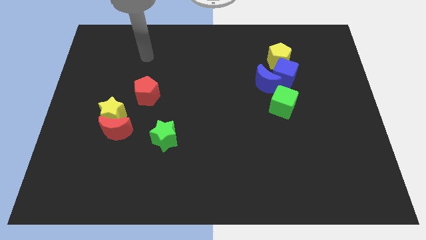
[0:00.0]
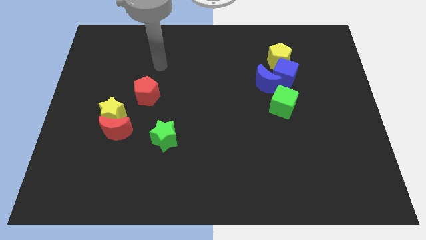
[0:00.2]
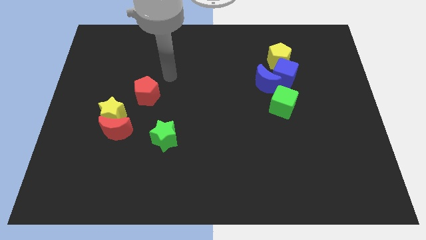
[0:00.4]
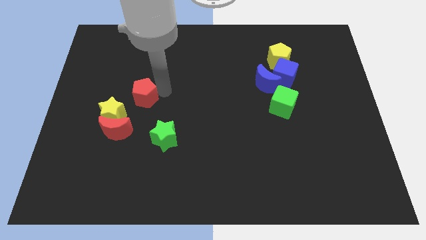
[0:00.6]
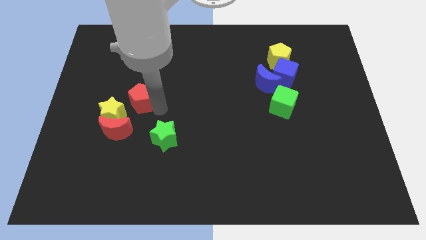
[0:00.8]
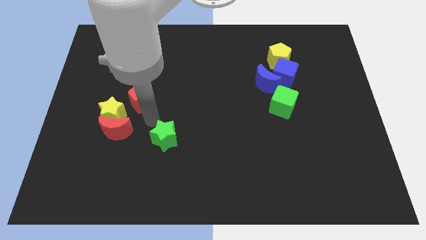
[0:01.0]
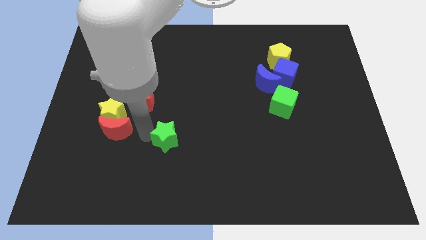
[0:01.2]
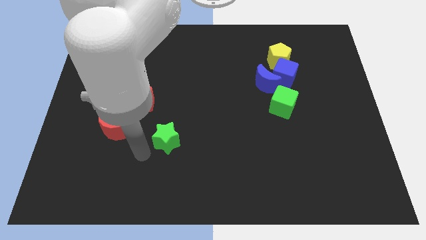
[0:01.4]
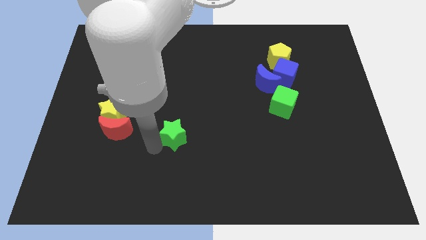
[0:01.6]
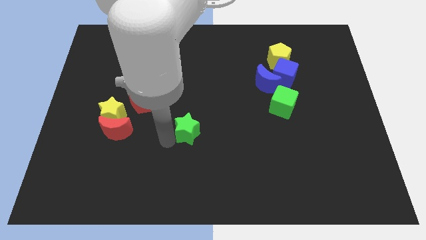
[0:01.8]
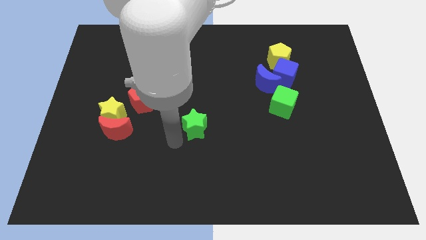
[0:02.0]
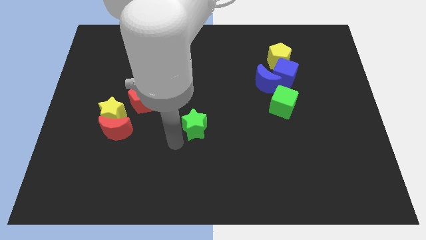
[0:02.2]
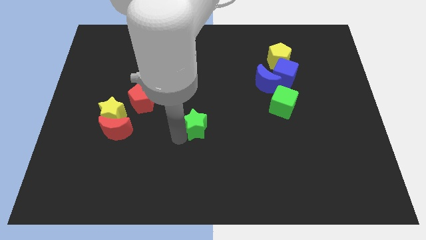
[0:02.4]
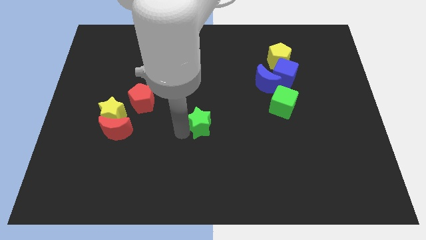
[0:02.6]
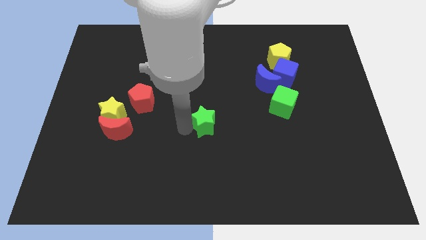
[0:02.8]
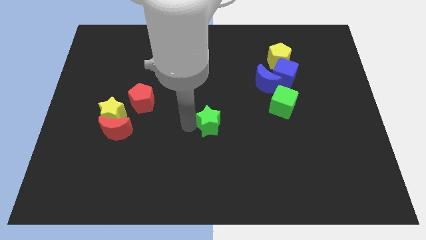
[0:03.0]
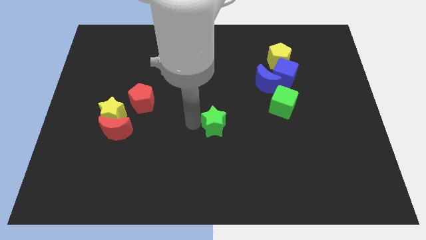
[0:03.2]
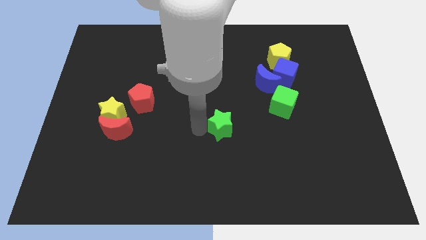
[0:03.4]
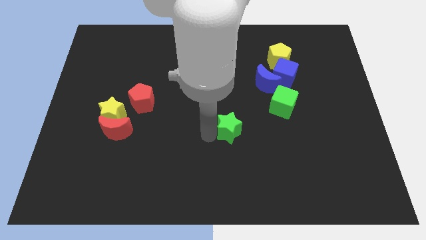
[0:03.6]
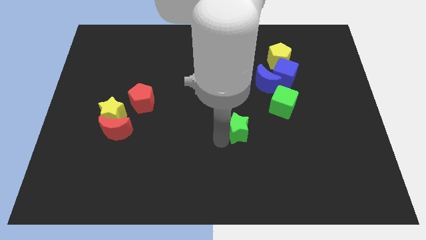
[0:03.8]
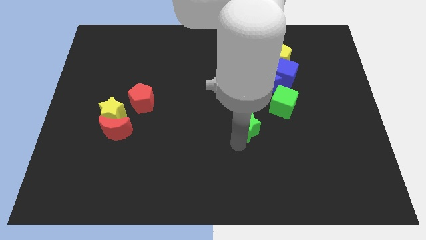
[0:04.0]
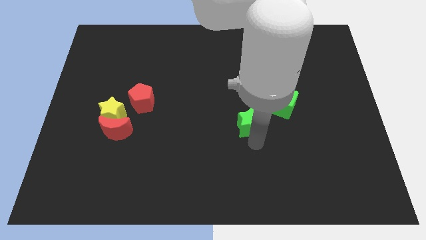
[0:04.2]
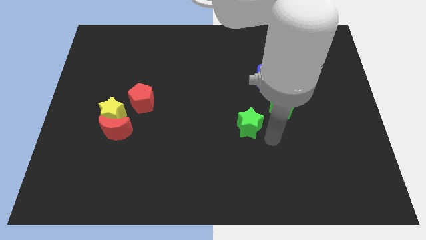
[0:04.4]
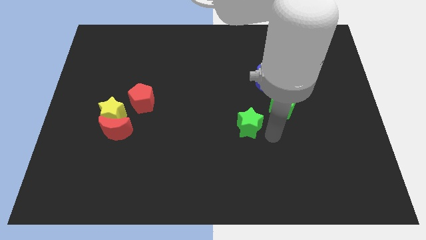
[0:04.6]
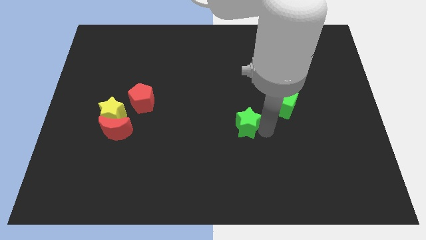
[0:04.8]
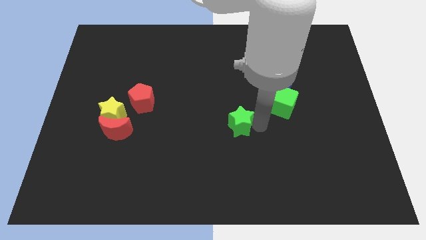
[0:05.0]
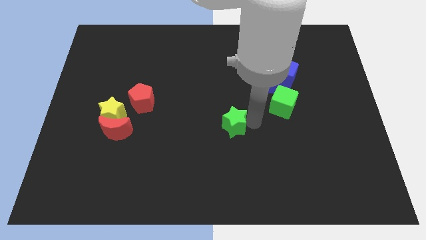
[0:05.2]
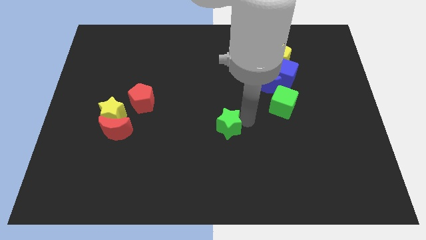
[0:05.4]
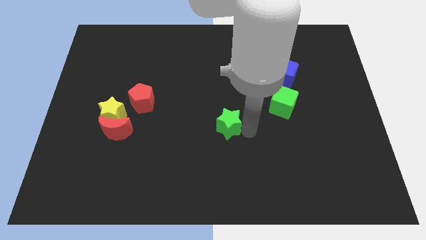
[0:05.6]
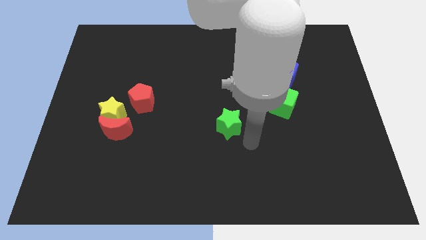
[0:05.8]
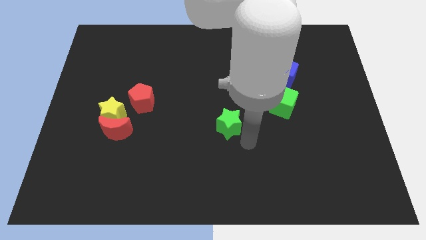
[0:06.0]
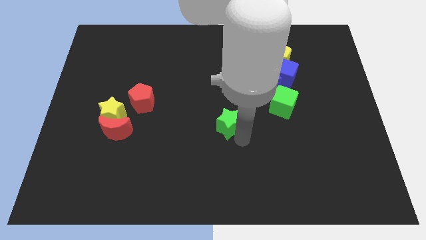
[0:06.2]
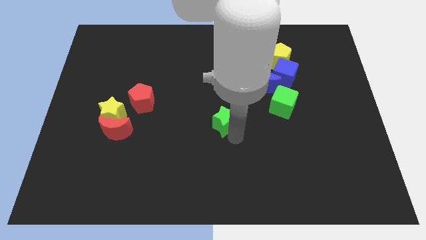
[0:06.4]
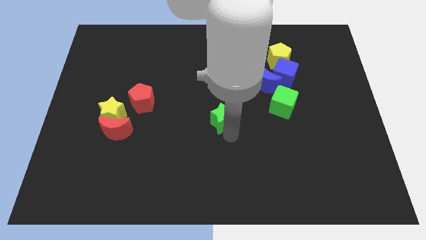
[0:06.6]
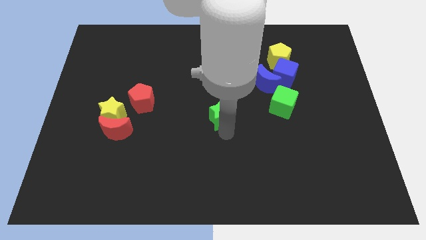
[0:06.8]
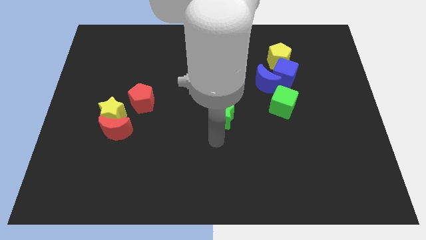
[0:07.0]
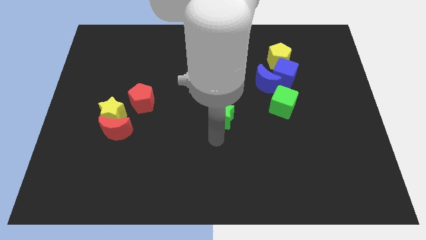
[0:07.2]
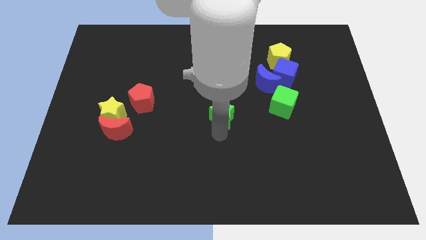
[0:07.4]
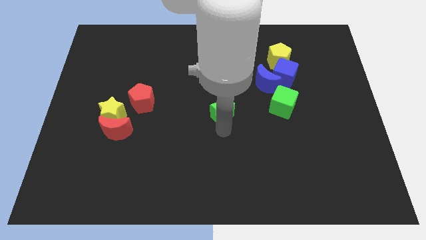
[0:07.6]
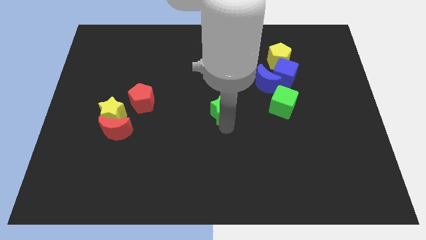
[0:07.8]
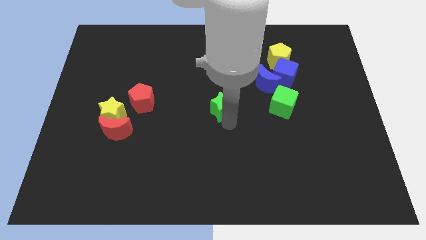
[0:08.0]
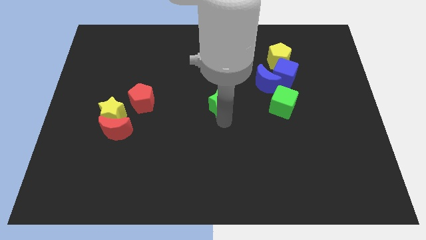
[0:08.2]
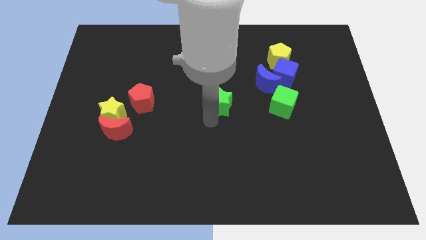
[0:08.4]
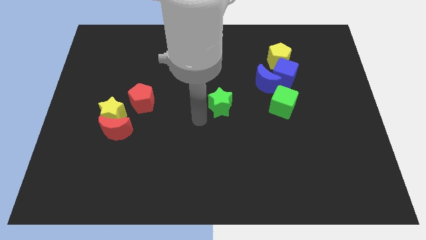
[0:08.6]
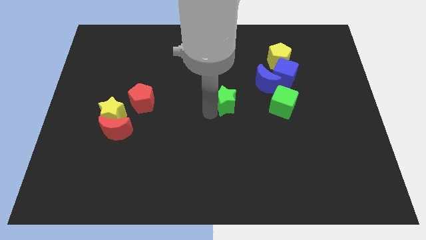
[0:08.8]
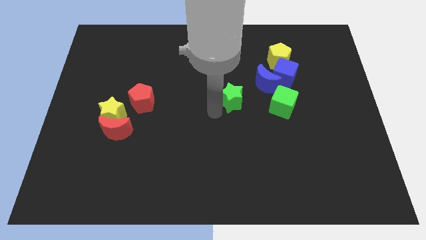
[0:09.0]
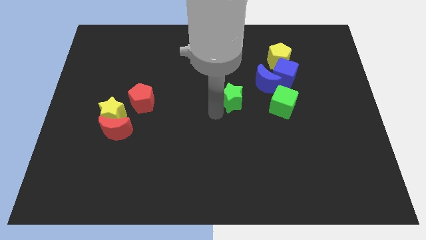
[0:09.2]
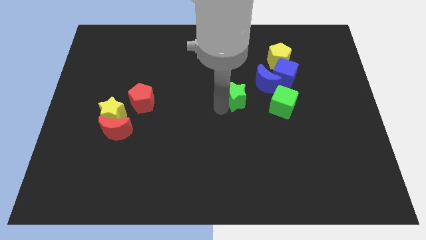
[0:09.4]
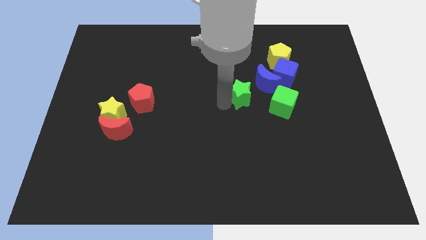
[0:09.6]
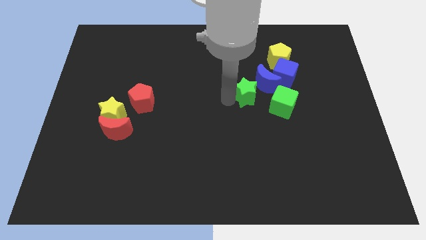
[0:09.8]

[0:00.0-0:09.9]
move the green star close to the blue moon

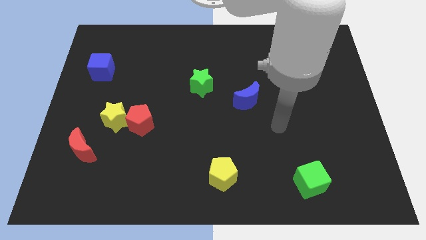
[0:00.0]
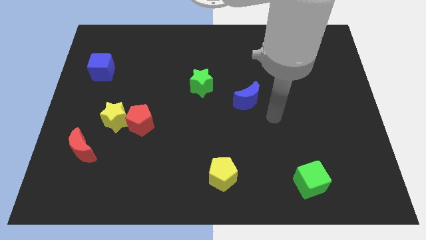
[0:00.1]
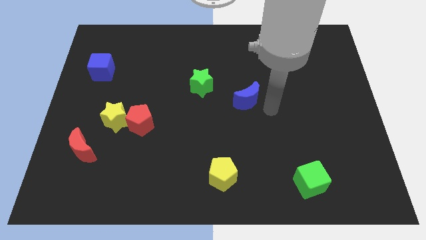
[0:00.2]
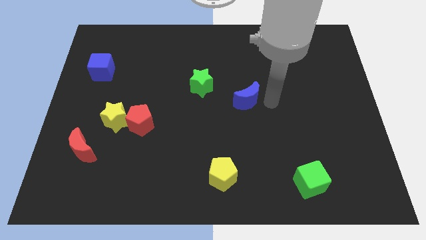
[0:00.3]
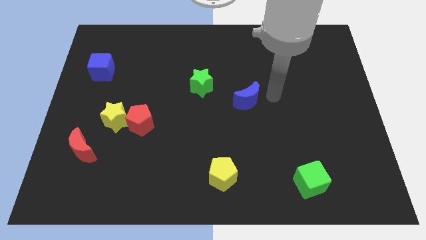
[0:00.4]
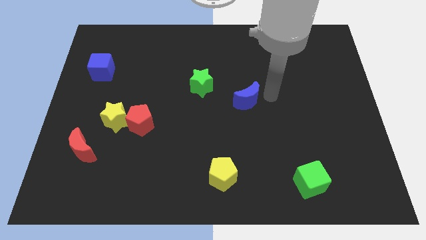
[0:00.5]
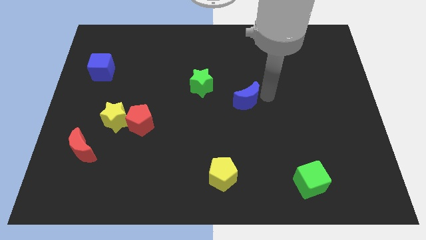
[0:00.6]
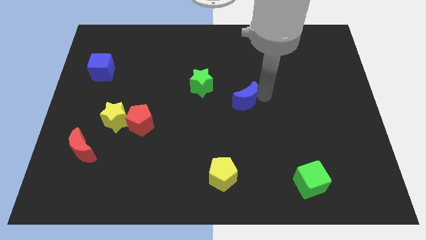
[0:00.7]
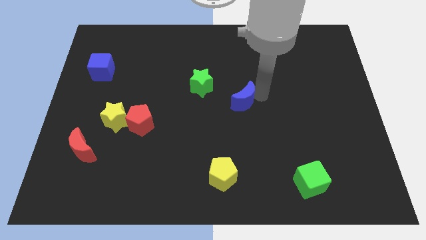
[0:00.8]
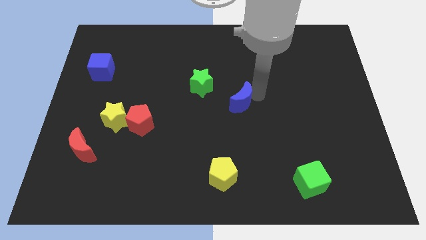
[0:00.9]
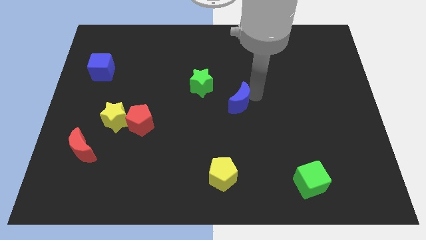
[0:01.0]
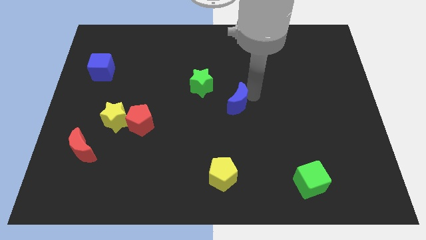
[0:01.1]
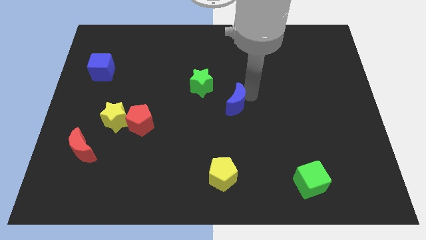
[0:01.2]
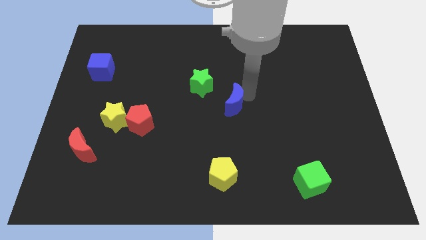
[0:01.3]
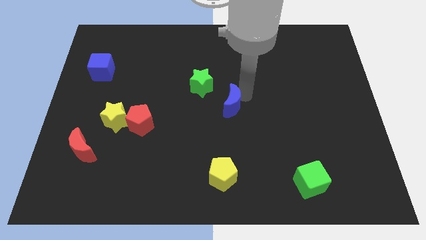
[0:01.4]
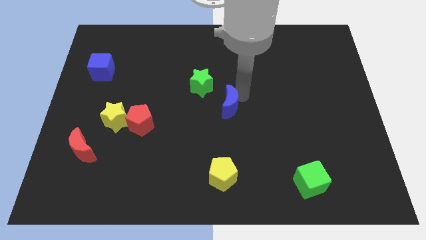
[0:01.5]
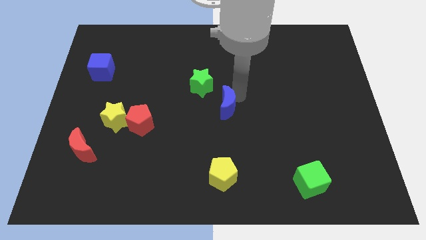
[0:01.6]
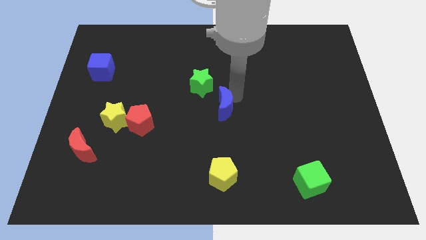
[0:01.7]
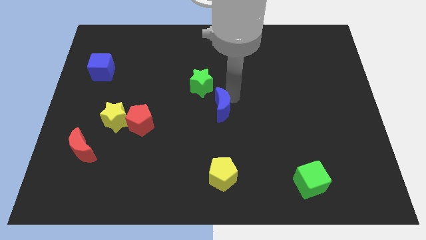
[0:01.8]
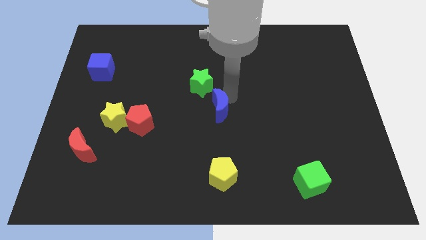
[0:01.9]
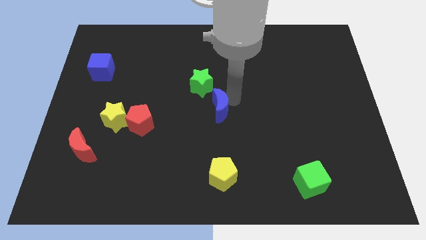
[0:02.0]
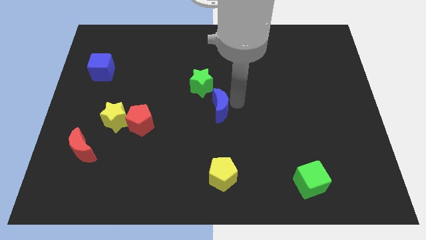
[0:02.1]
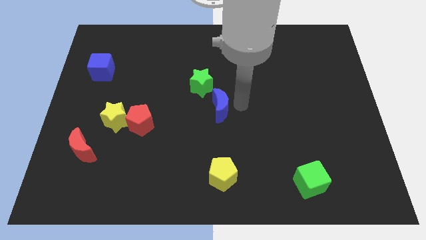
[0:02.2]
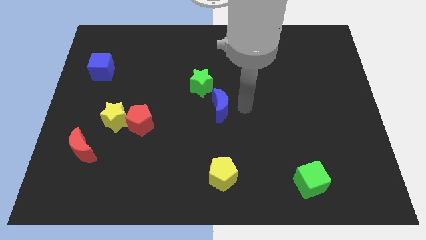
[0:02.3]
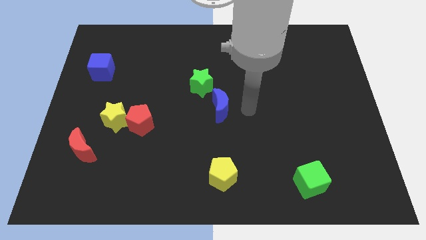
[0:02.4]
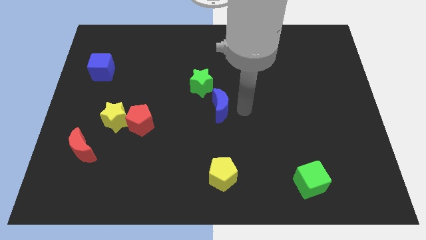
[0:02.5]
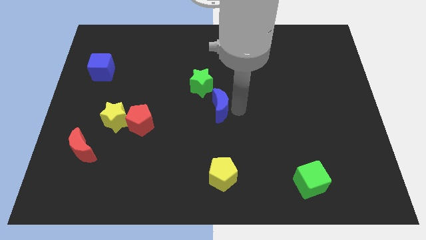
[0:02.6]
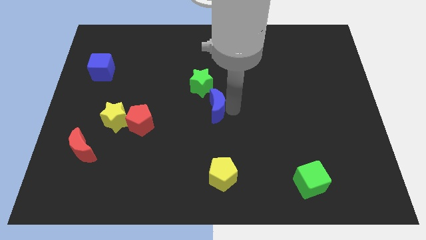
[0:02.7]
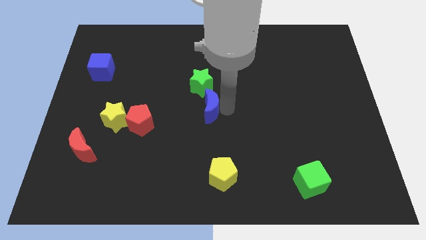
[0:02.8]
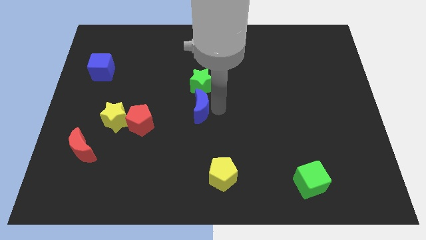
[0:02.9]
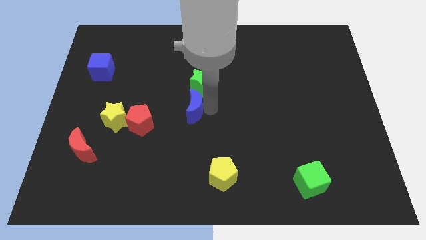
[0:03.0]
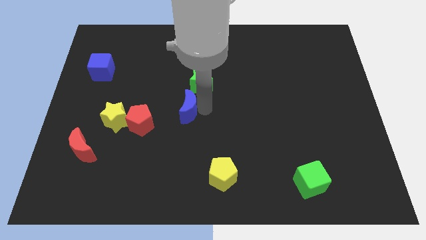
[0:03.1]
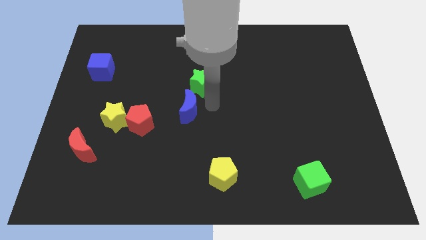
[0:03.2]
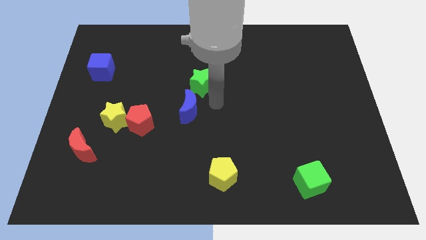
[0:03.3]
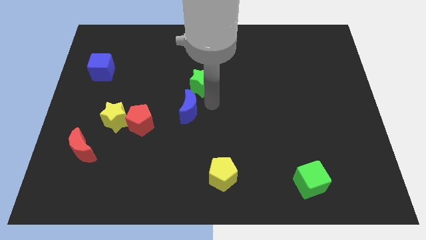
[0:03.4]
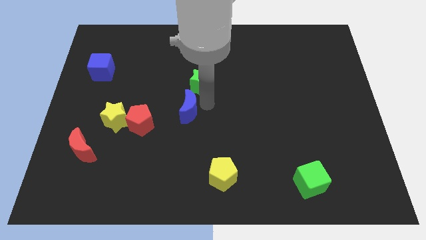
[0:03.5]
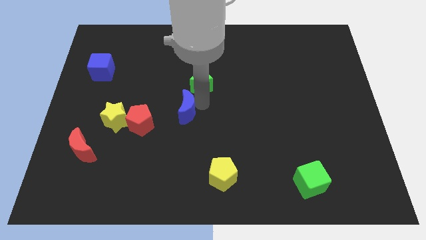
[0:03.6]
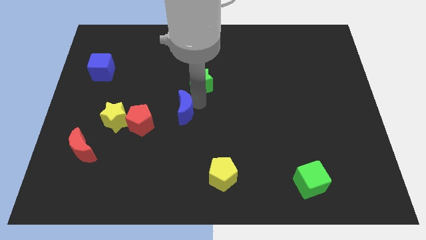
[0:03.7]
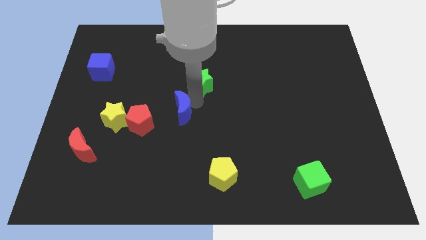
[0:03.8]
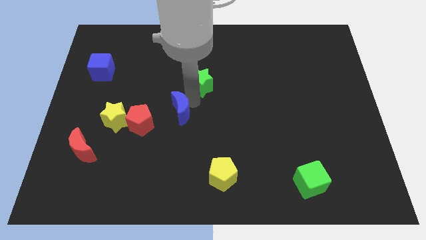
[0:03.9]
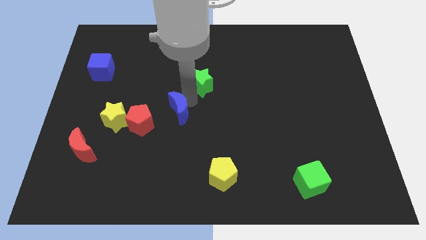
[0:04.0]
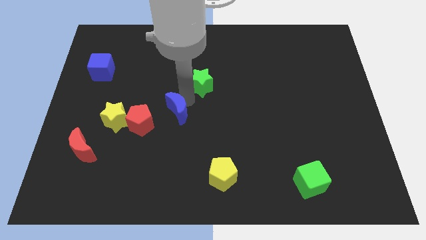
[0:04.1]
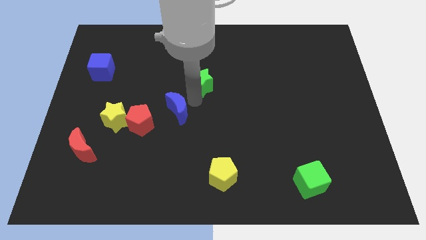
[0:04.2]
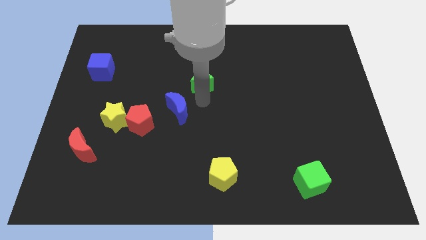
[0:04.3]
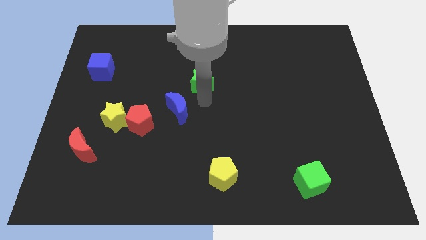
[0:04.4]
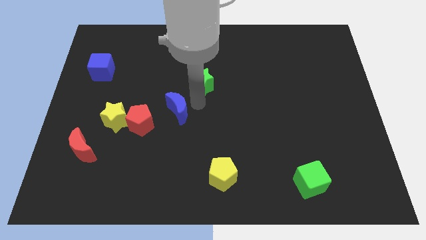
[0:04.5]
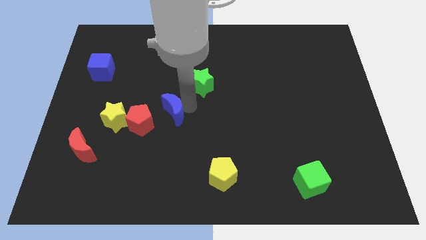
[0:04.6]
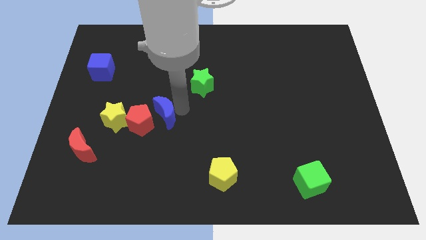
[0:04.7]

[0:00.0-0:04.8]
slide the blue moon towards the red pentagon
